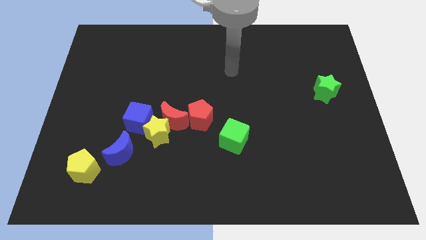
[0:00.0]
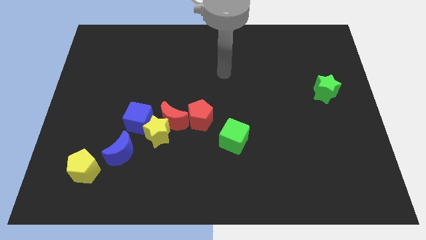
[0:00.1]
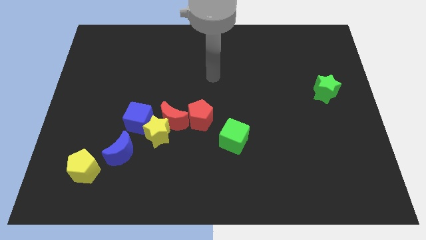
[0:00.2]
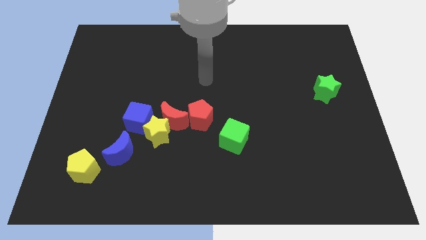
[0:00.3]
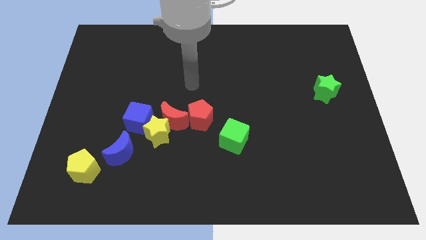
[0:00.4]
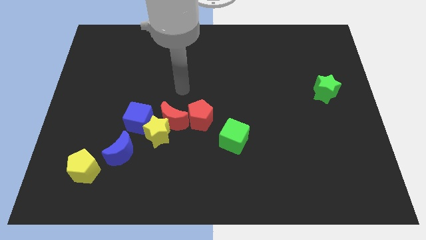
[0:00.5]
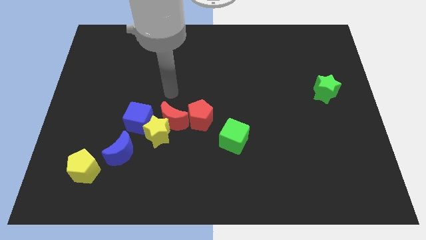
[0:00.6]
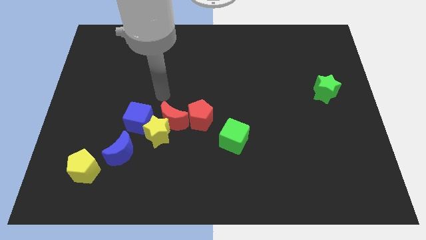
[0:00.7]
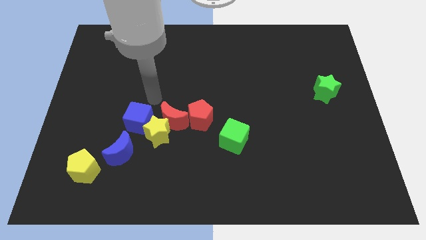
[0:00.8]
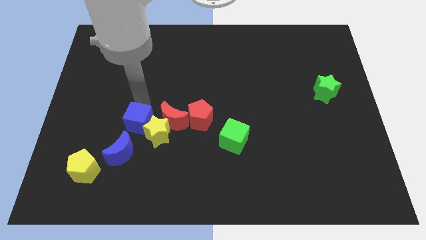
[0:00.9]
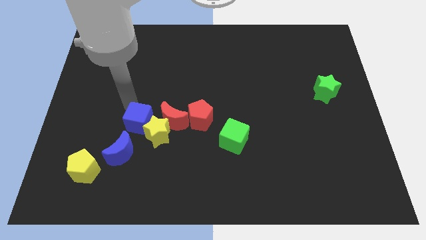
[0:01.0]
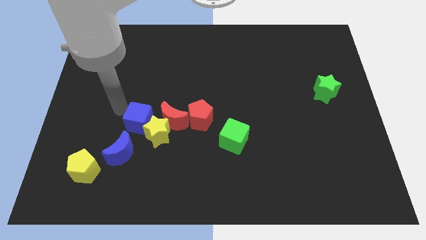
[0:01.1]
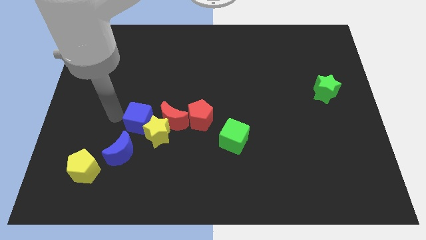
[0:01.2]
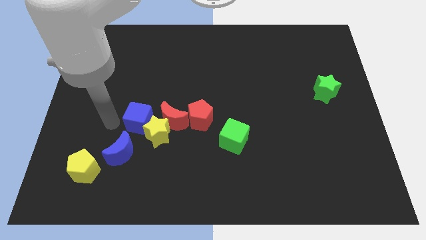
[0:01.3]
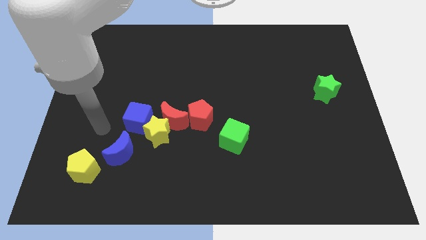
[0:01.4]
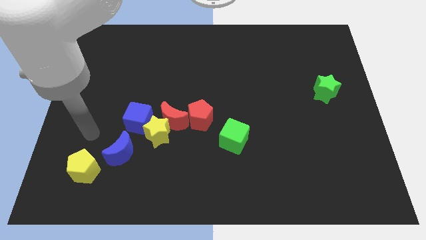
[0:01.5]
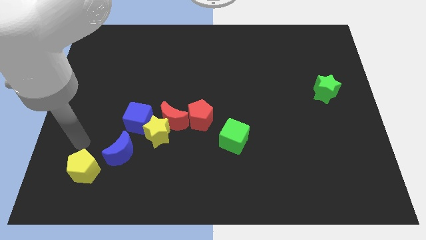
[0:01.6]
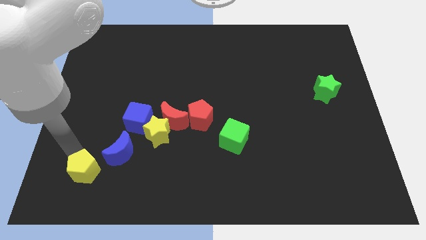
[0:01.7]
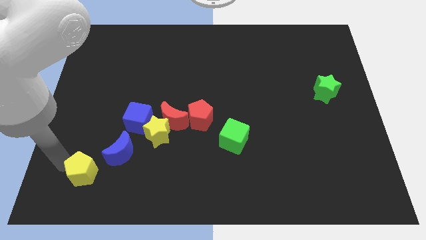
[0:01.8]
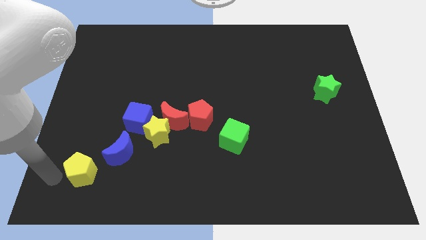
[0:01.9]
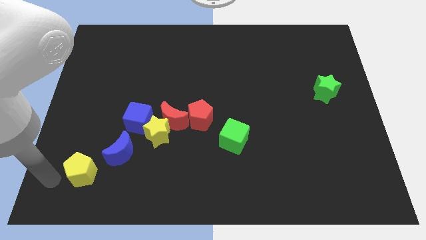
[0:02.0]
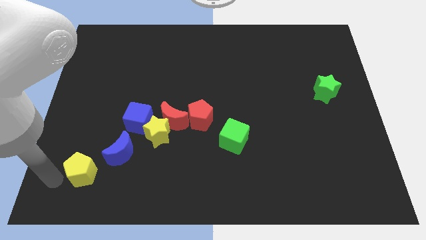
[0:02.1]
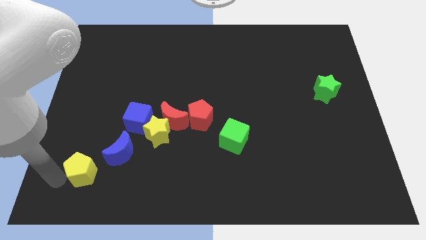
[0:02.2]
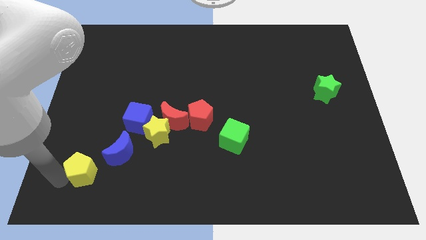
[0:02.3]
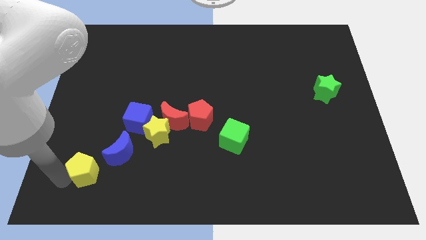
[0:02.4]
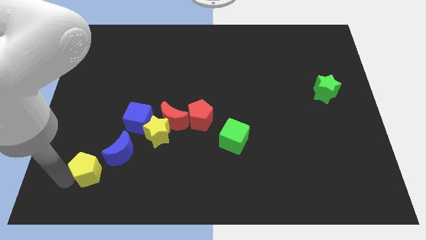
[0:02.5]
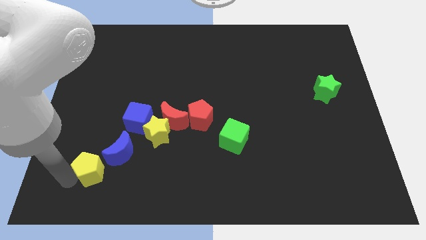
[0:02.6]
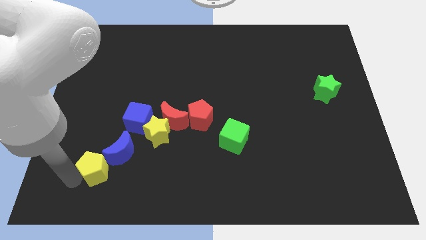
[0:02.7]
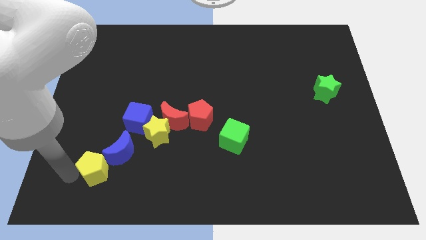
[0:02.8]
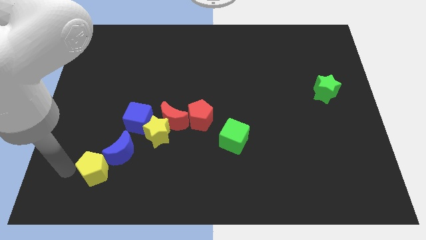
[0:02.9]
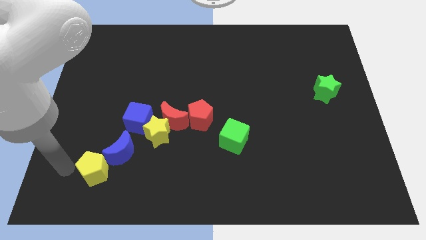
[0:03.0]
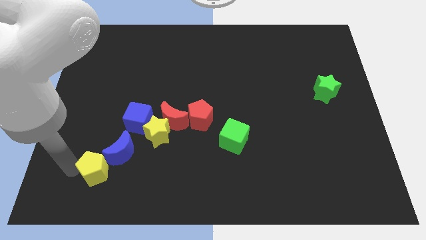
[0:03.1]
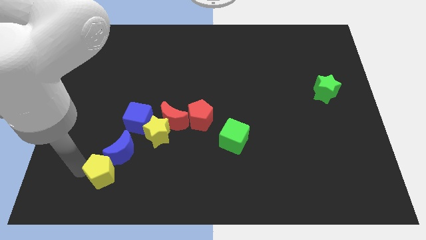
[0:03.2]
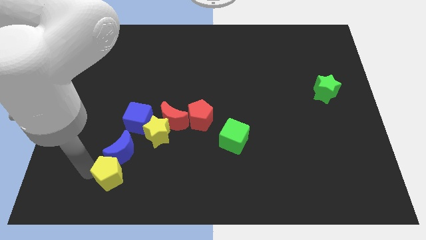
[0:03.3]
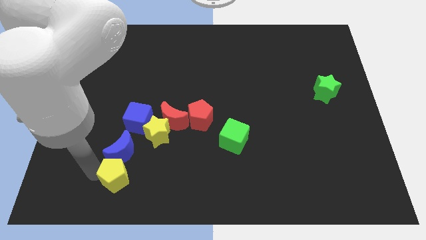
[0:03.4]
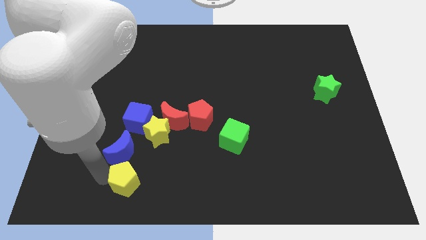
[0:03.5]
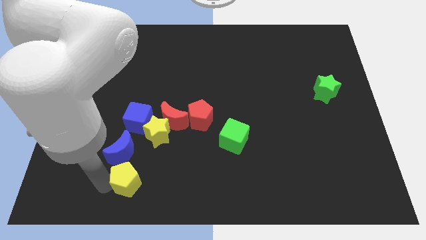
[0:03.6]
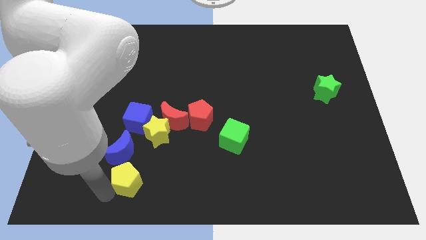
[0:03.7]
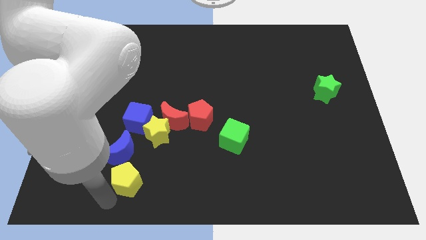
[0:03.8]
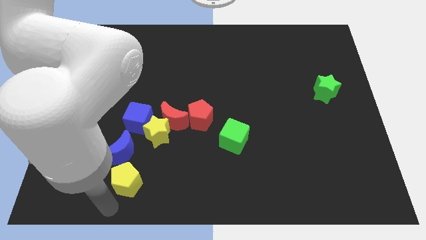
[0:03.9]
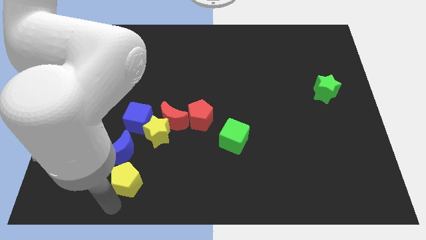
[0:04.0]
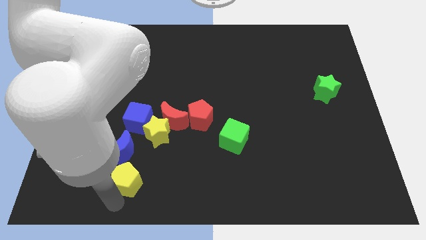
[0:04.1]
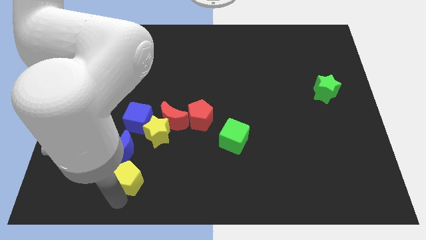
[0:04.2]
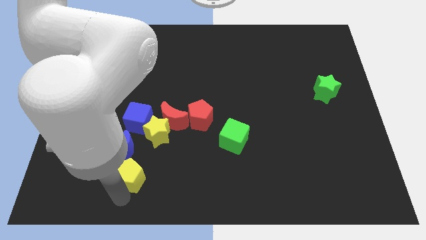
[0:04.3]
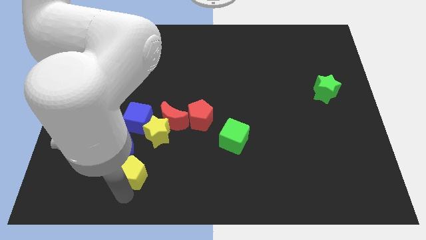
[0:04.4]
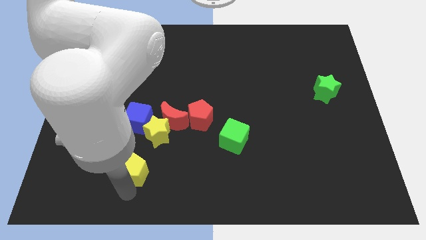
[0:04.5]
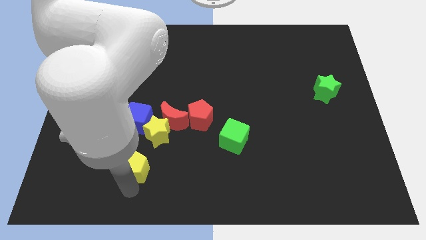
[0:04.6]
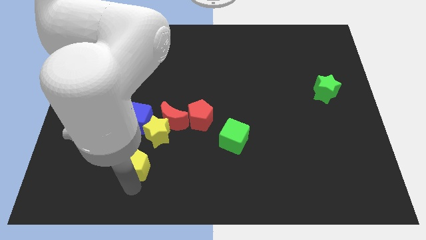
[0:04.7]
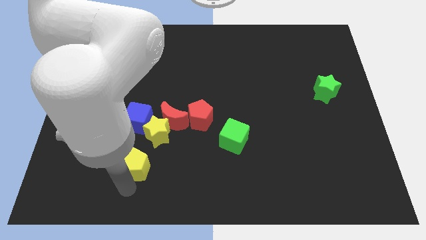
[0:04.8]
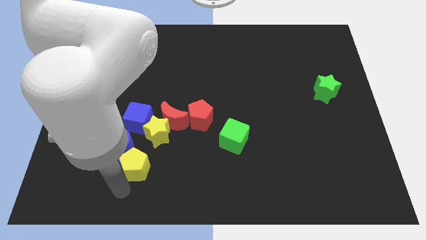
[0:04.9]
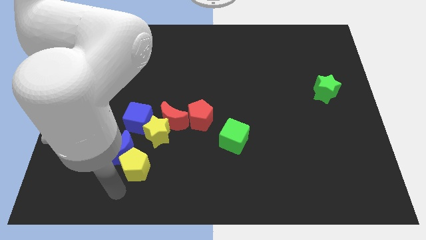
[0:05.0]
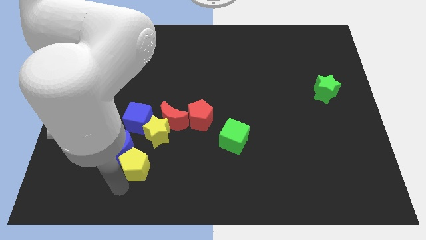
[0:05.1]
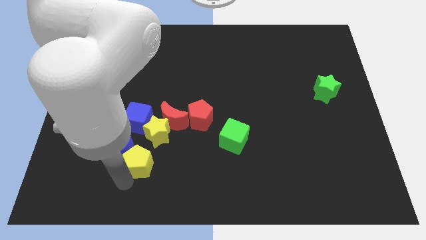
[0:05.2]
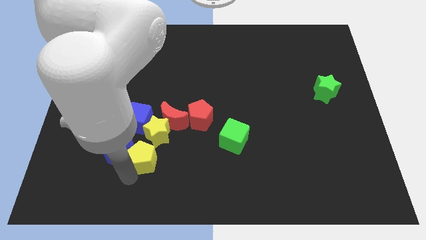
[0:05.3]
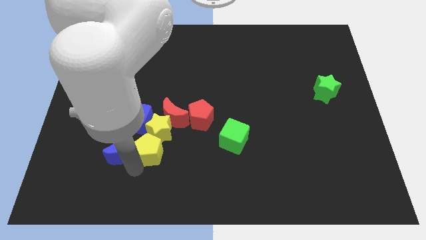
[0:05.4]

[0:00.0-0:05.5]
move the yellow pentagon to the yellow star

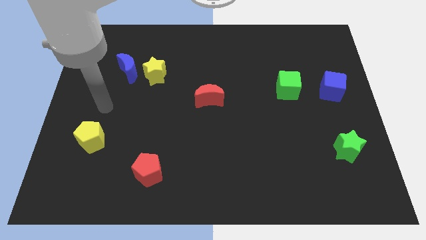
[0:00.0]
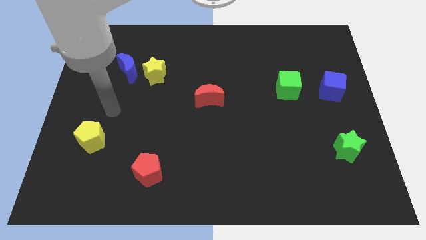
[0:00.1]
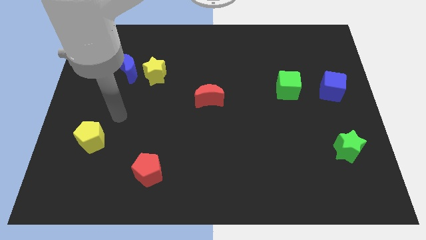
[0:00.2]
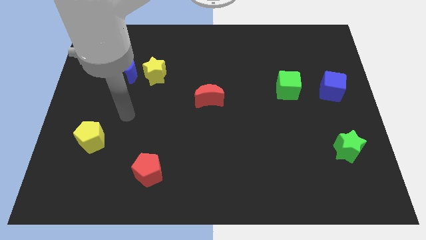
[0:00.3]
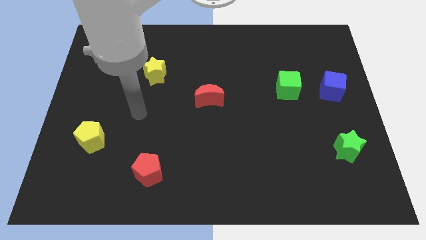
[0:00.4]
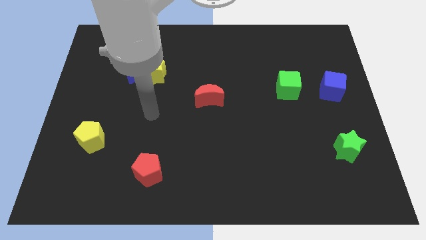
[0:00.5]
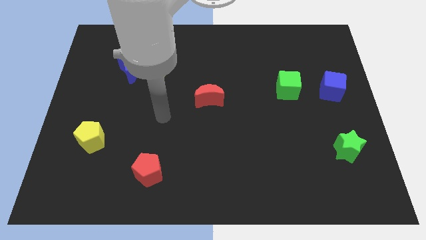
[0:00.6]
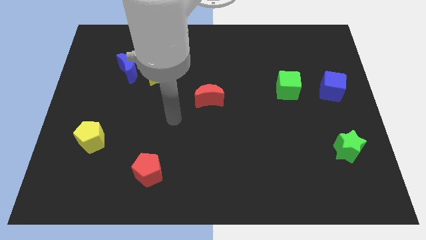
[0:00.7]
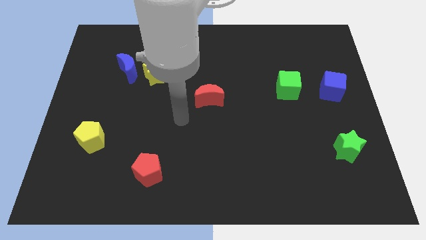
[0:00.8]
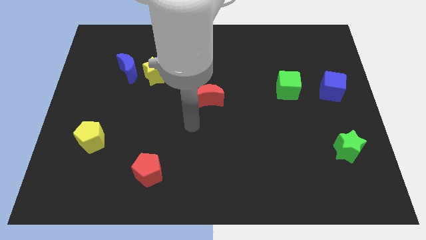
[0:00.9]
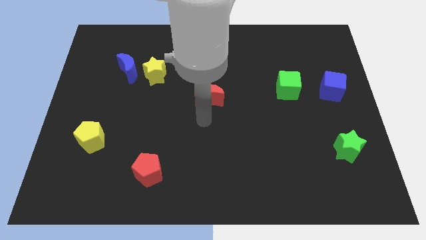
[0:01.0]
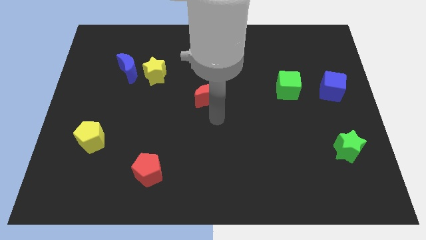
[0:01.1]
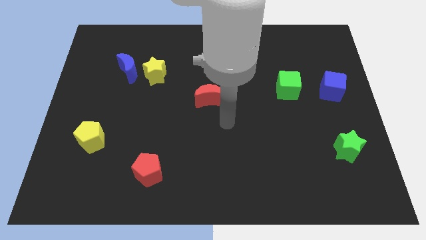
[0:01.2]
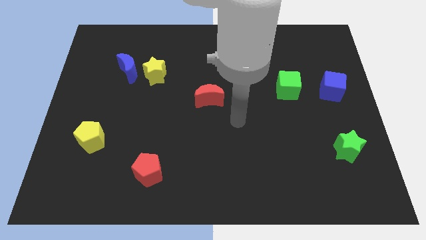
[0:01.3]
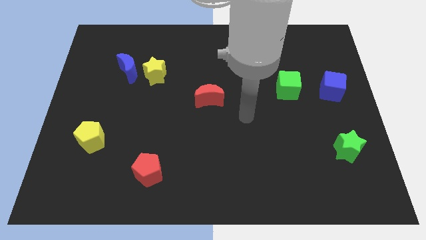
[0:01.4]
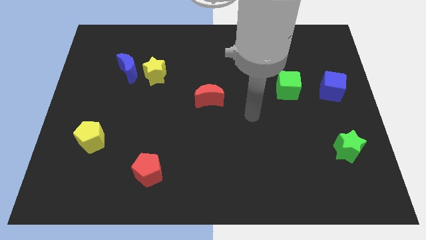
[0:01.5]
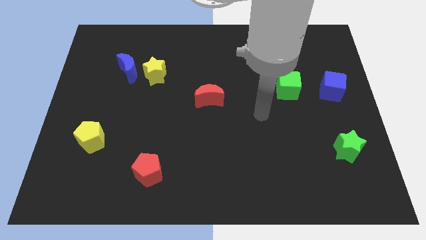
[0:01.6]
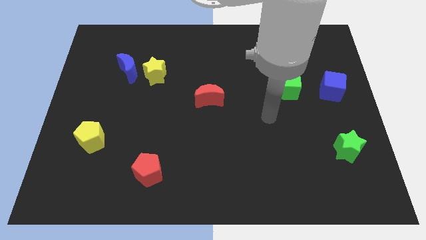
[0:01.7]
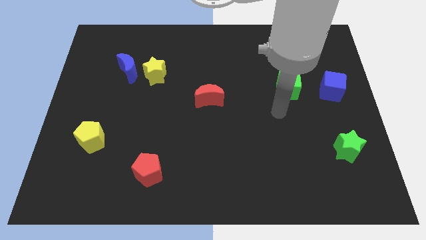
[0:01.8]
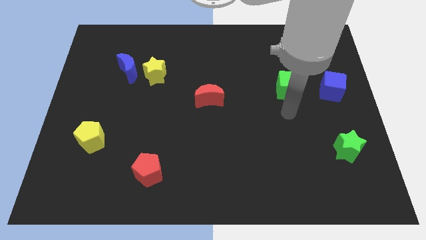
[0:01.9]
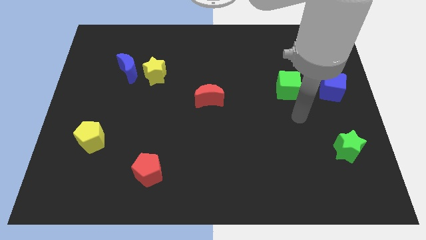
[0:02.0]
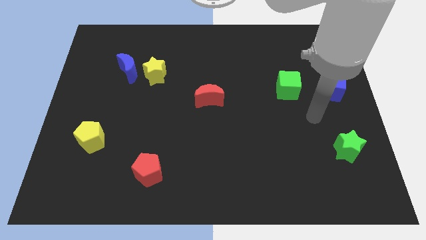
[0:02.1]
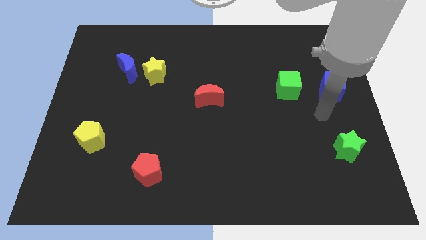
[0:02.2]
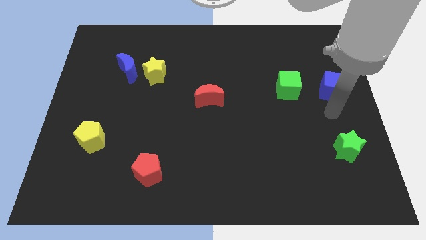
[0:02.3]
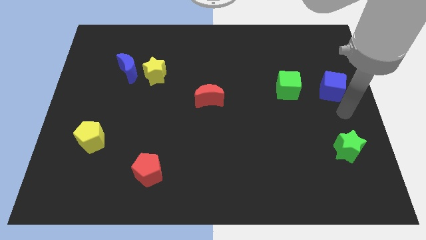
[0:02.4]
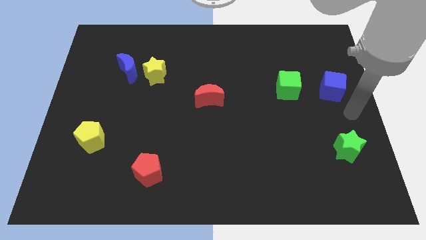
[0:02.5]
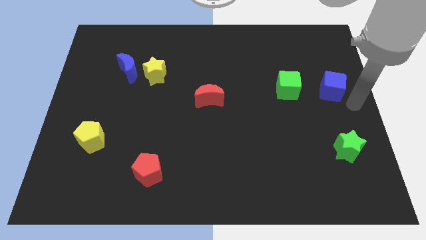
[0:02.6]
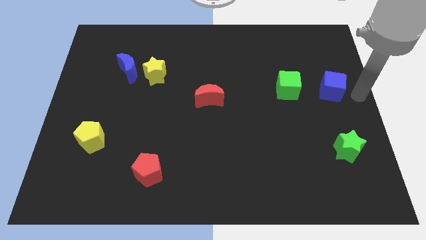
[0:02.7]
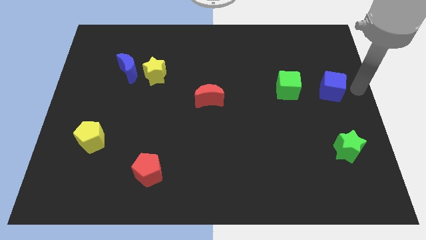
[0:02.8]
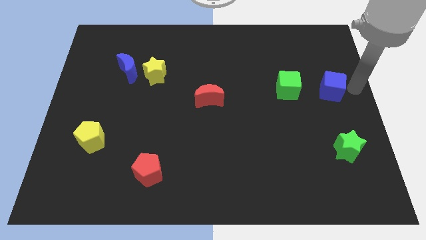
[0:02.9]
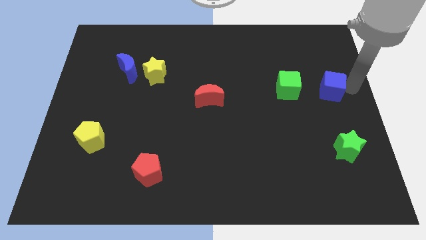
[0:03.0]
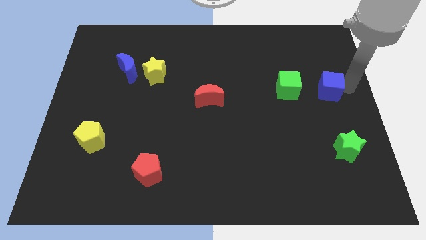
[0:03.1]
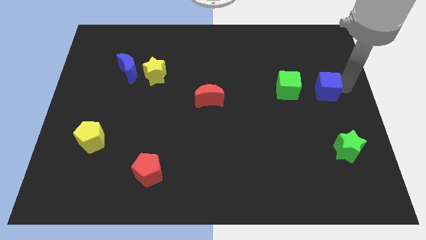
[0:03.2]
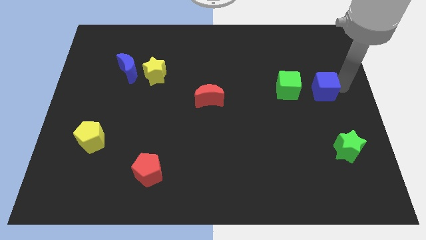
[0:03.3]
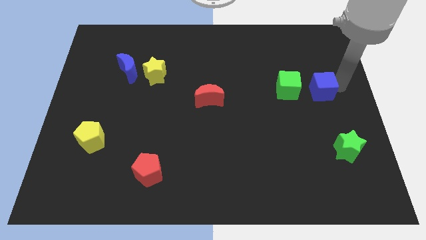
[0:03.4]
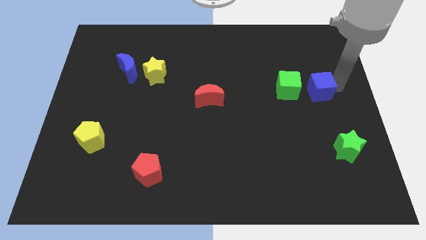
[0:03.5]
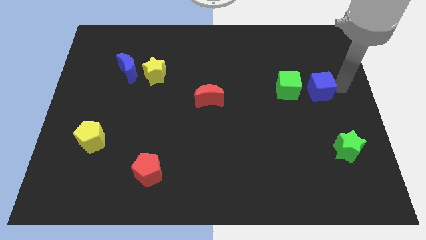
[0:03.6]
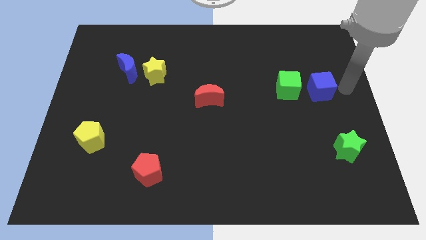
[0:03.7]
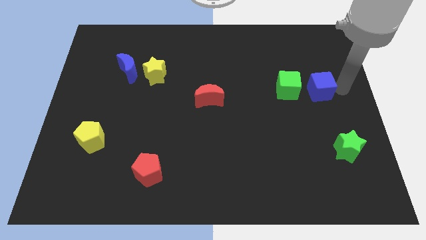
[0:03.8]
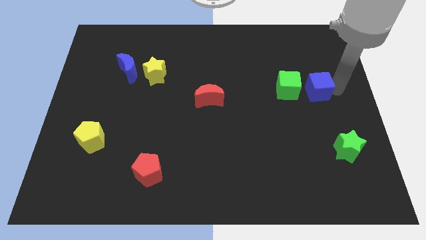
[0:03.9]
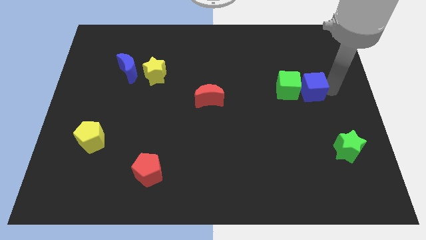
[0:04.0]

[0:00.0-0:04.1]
move the blue cube next to the green cube
